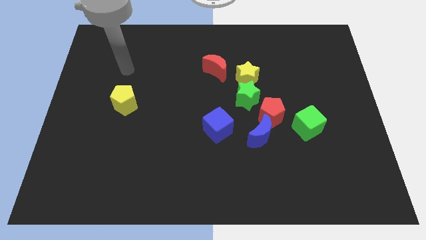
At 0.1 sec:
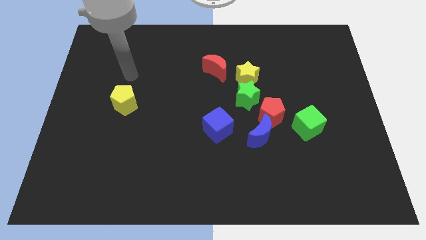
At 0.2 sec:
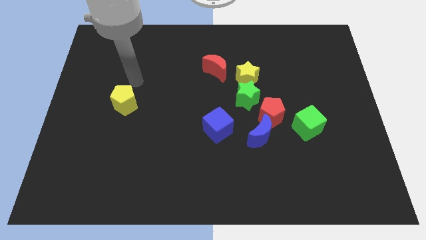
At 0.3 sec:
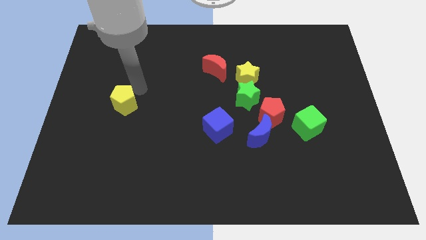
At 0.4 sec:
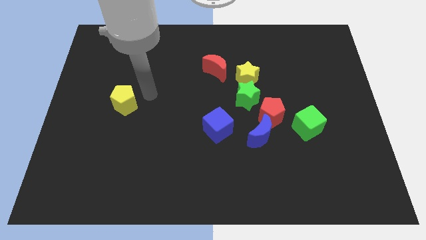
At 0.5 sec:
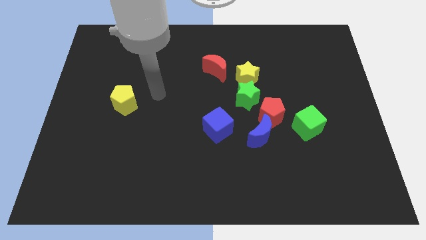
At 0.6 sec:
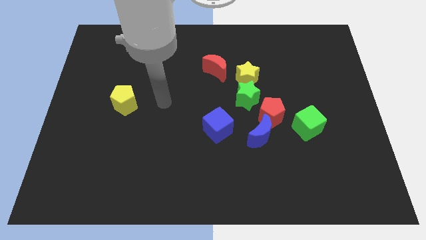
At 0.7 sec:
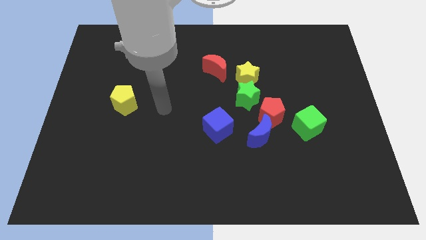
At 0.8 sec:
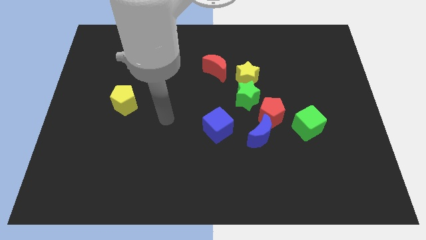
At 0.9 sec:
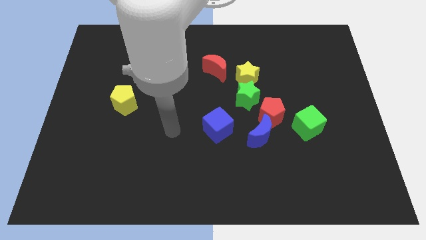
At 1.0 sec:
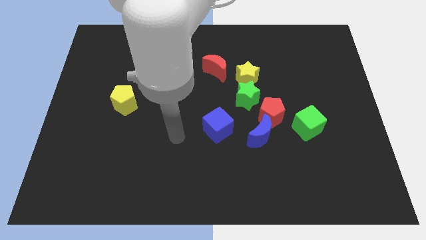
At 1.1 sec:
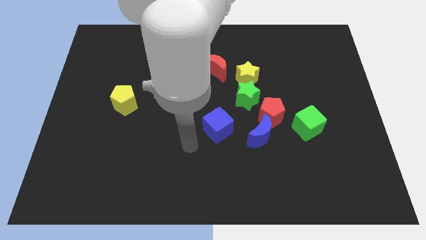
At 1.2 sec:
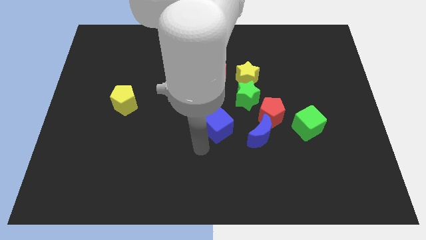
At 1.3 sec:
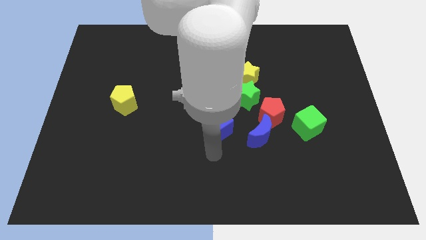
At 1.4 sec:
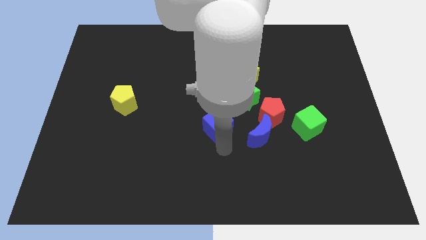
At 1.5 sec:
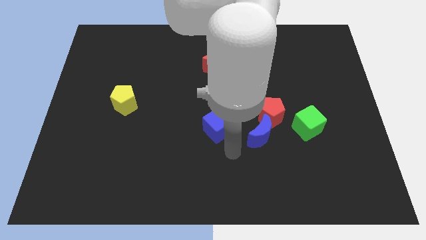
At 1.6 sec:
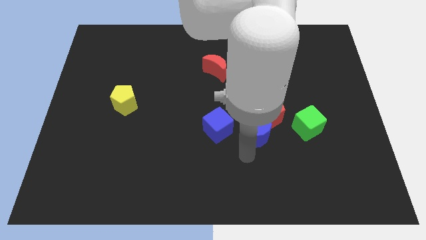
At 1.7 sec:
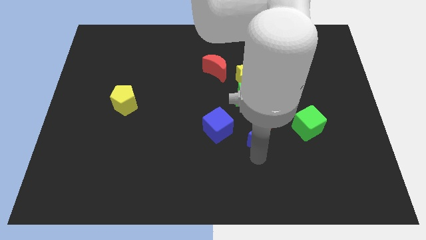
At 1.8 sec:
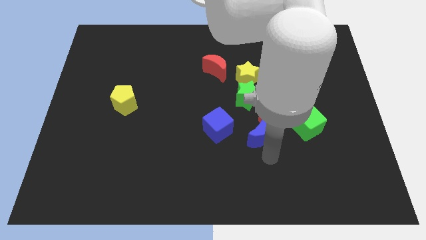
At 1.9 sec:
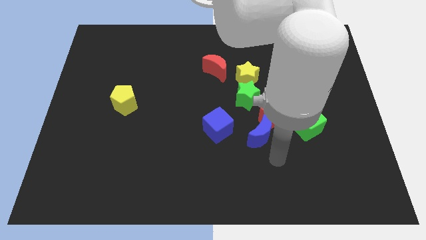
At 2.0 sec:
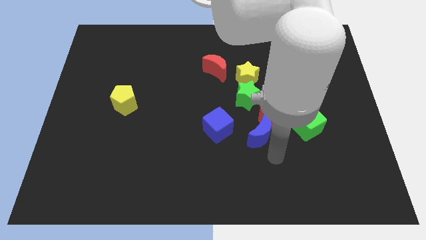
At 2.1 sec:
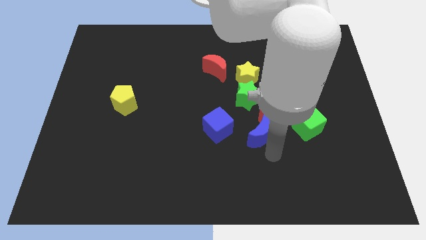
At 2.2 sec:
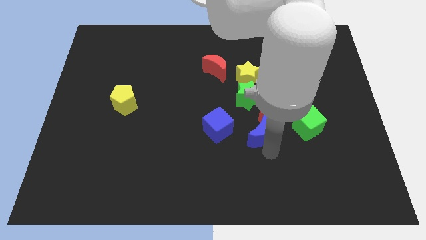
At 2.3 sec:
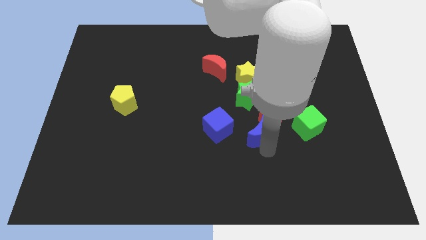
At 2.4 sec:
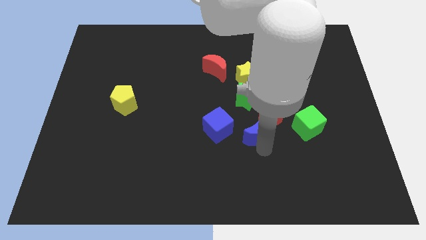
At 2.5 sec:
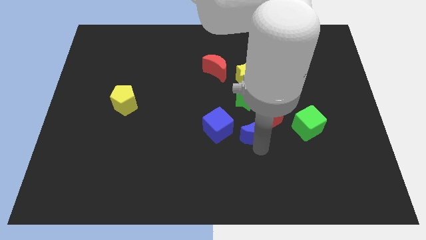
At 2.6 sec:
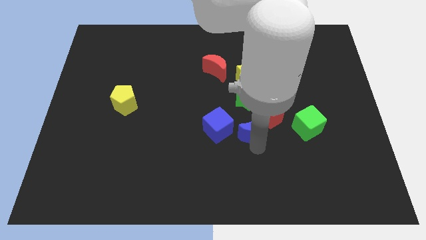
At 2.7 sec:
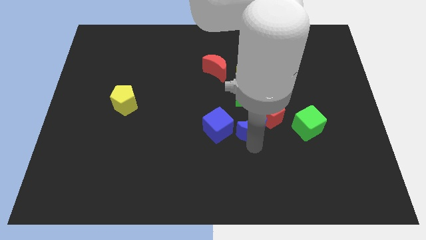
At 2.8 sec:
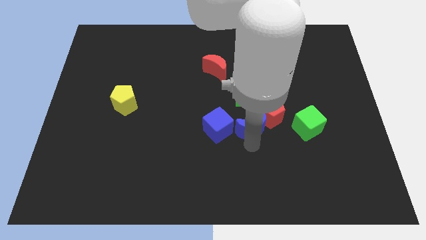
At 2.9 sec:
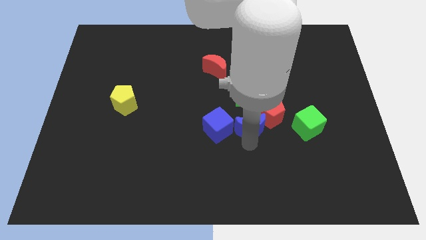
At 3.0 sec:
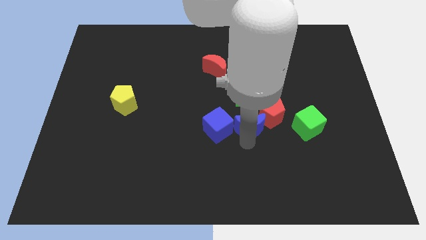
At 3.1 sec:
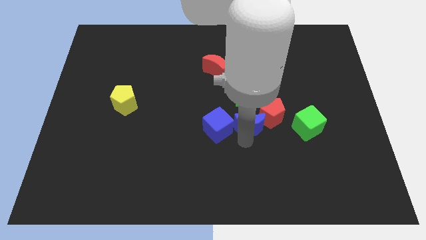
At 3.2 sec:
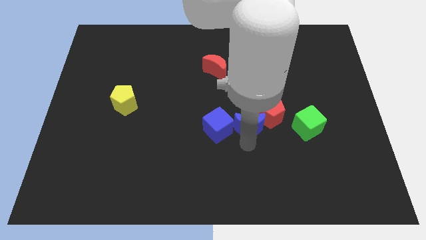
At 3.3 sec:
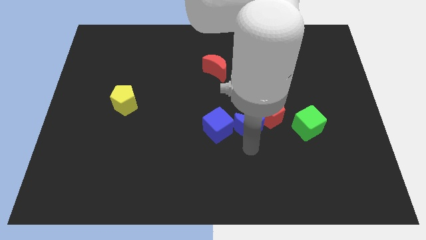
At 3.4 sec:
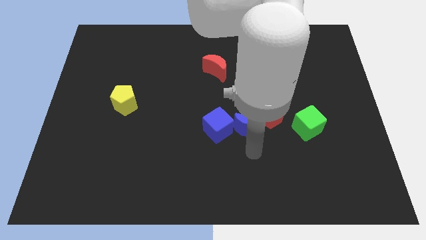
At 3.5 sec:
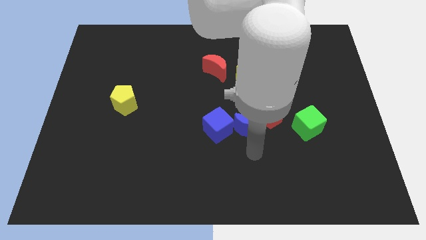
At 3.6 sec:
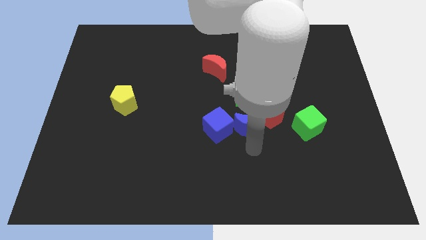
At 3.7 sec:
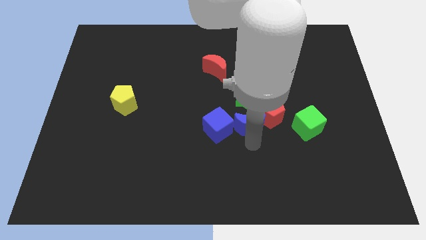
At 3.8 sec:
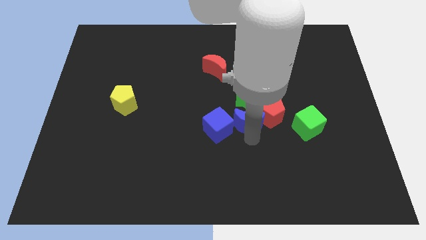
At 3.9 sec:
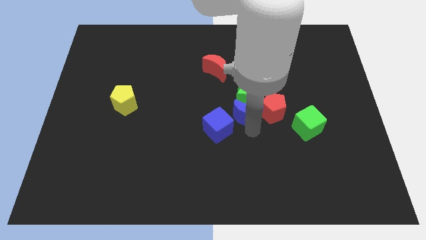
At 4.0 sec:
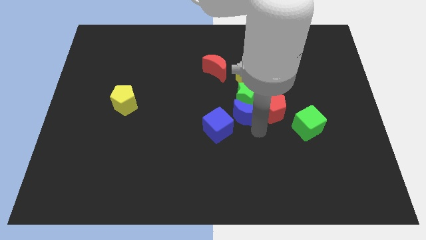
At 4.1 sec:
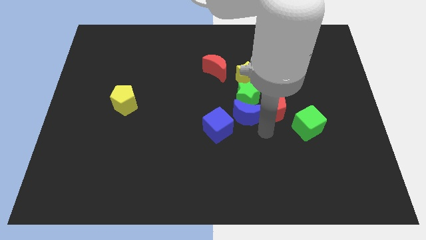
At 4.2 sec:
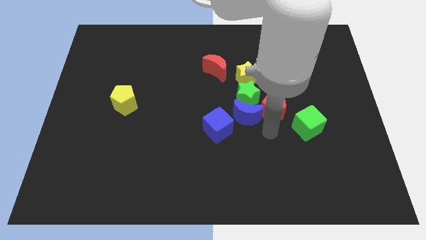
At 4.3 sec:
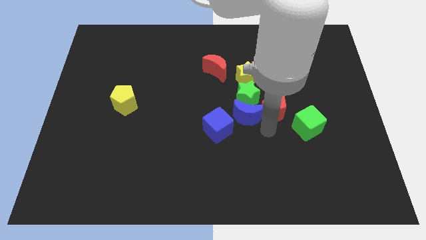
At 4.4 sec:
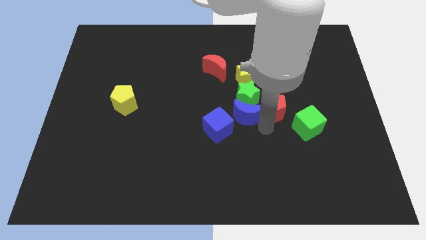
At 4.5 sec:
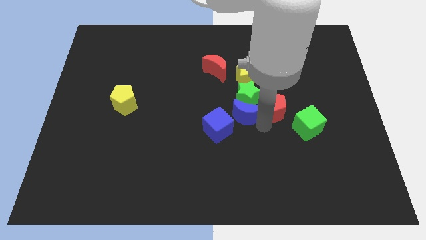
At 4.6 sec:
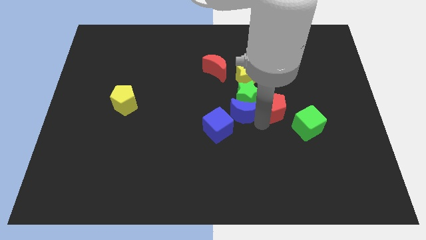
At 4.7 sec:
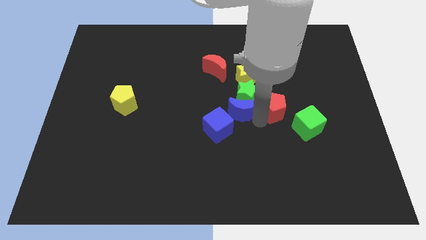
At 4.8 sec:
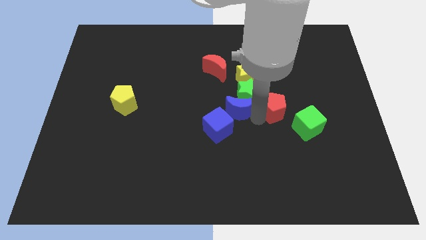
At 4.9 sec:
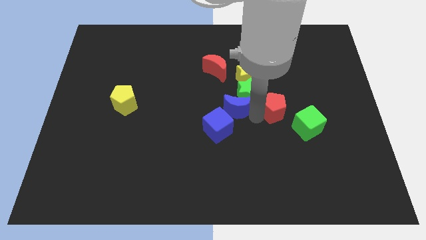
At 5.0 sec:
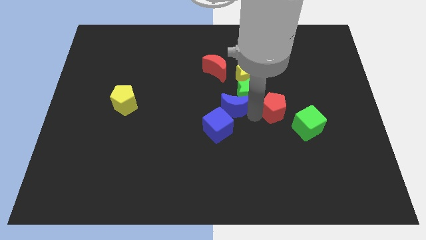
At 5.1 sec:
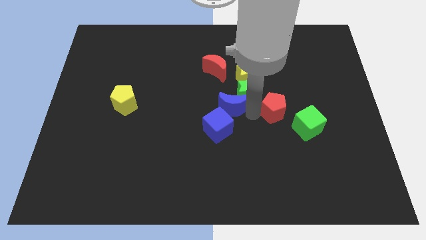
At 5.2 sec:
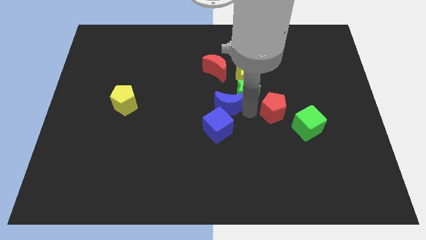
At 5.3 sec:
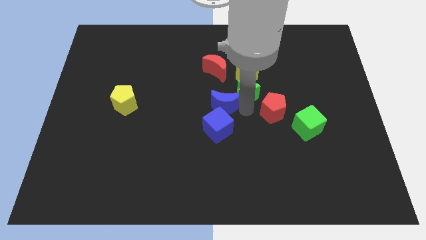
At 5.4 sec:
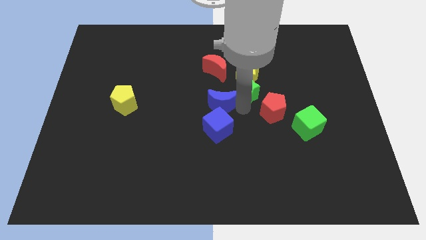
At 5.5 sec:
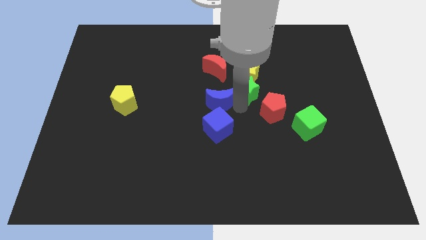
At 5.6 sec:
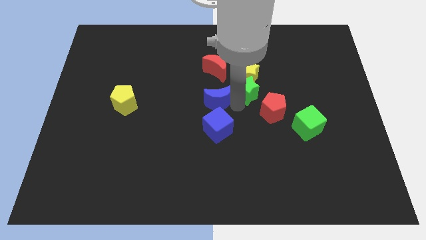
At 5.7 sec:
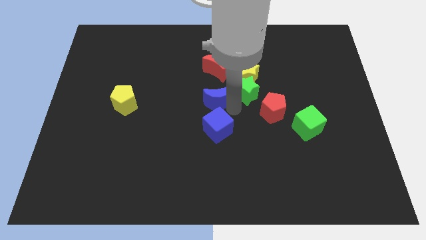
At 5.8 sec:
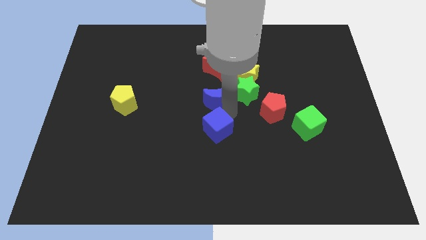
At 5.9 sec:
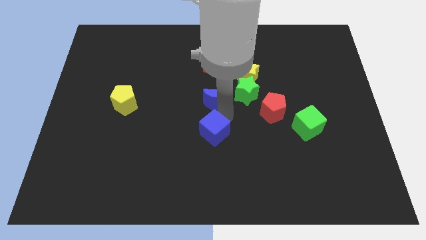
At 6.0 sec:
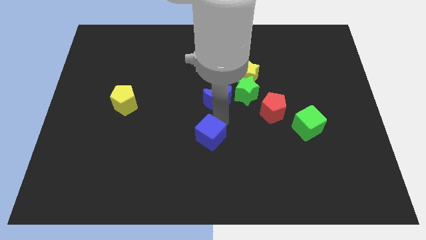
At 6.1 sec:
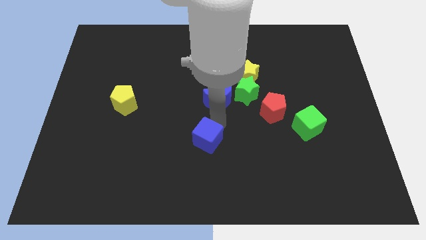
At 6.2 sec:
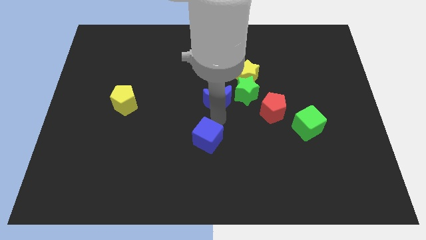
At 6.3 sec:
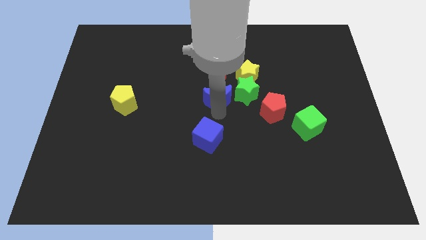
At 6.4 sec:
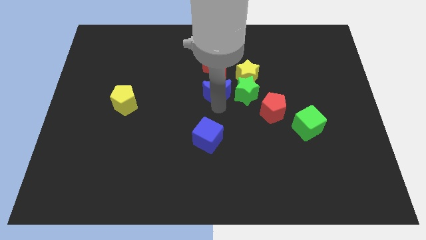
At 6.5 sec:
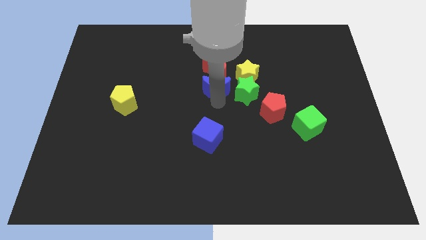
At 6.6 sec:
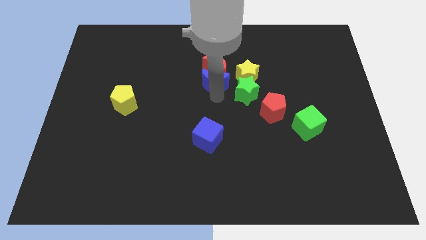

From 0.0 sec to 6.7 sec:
move the blue moon next to the red moon

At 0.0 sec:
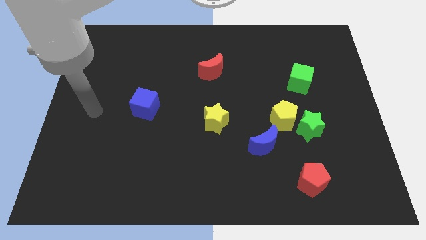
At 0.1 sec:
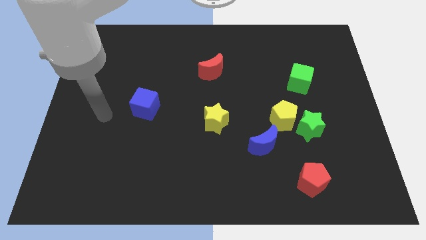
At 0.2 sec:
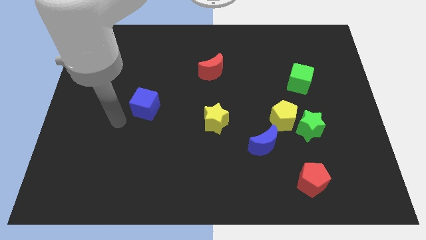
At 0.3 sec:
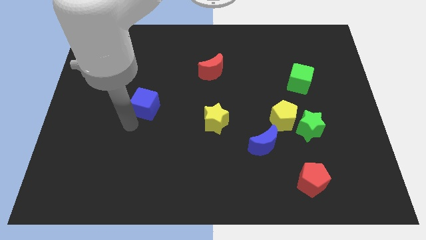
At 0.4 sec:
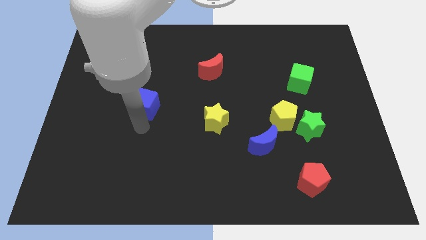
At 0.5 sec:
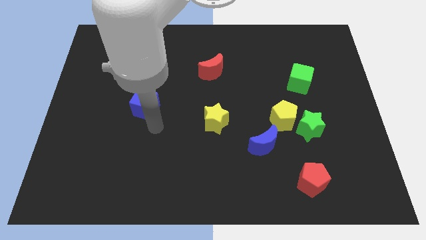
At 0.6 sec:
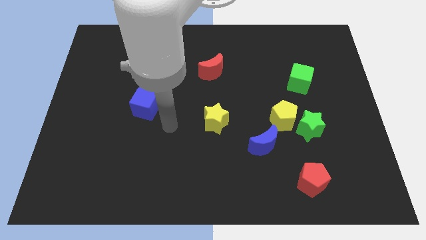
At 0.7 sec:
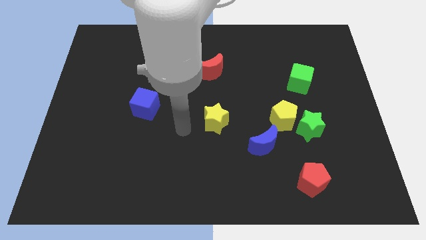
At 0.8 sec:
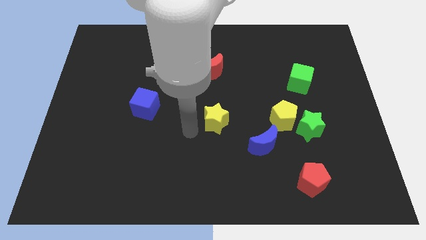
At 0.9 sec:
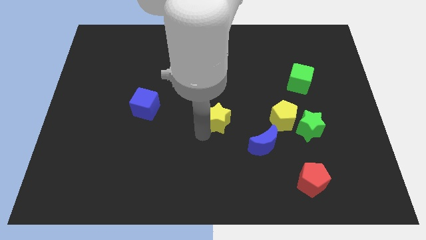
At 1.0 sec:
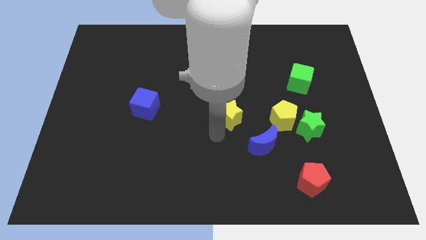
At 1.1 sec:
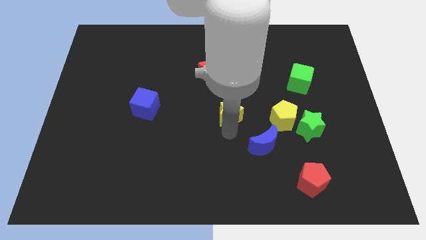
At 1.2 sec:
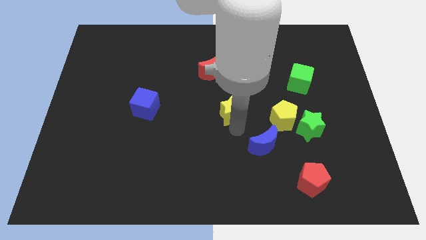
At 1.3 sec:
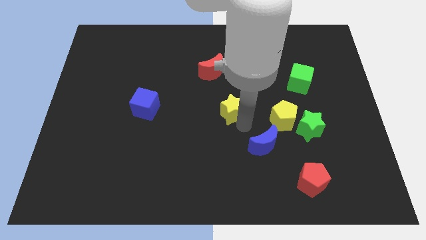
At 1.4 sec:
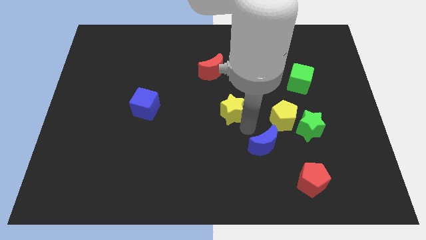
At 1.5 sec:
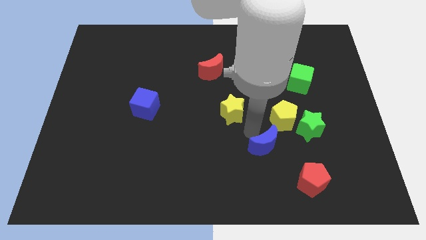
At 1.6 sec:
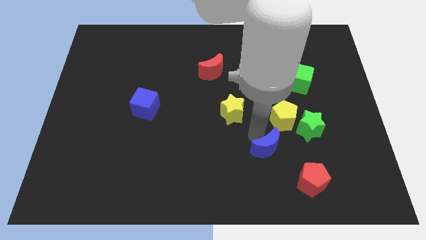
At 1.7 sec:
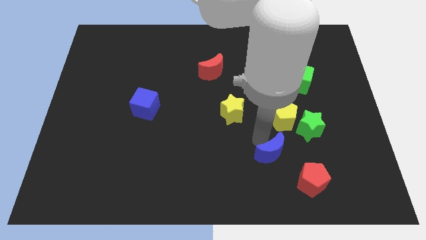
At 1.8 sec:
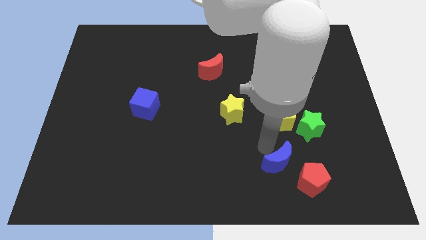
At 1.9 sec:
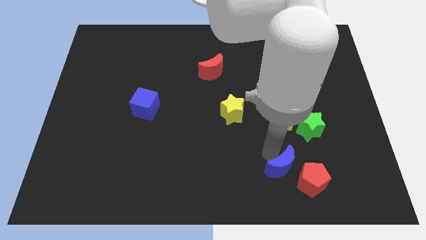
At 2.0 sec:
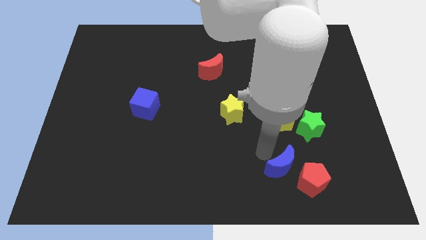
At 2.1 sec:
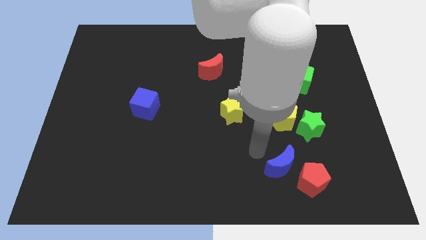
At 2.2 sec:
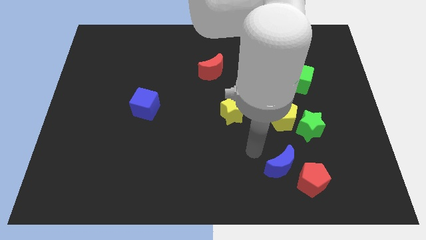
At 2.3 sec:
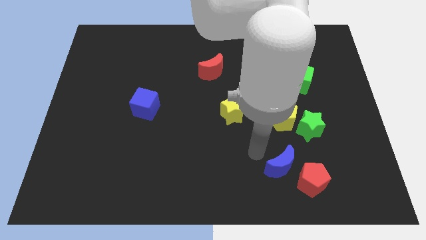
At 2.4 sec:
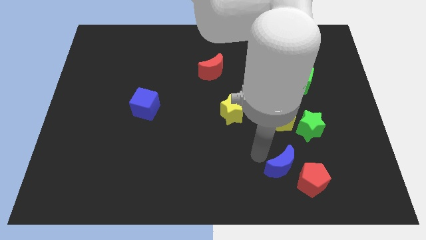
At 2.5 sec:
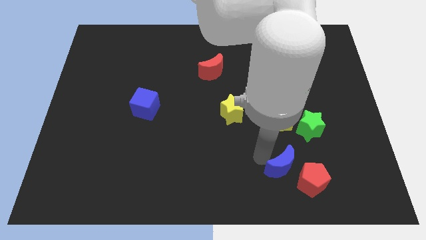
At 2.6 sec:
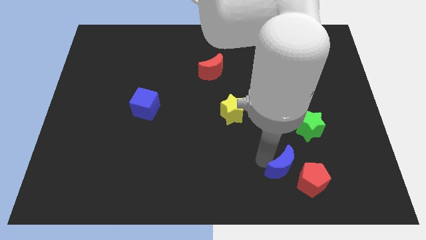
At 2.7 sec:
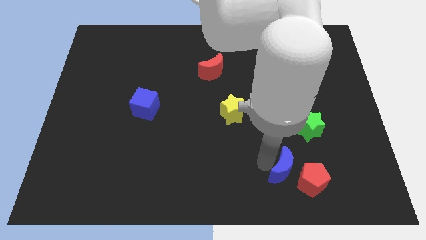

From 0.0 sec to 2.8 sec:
push the blue moon next to the red pentagon
